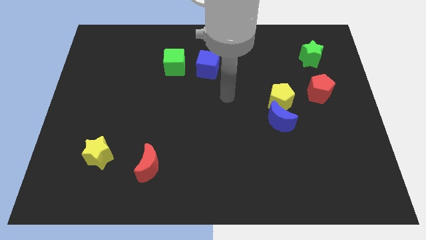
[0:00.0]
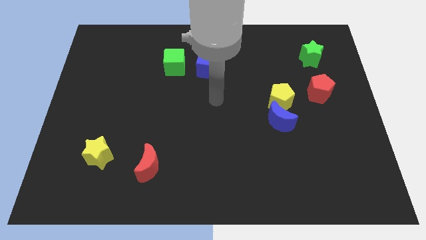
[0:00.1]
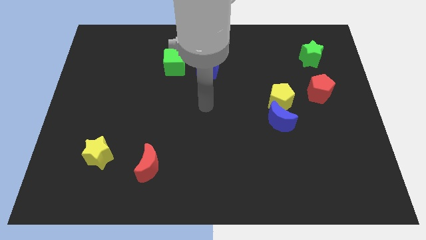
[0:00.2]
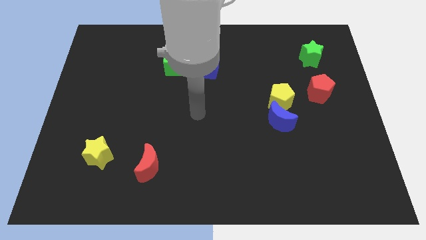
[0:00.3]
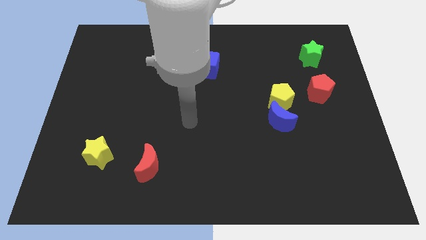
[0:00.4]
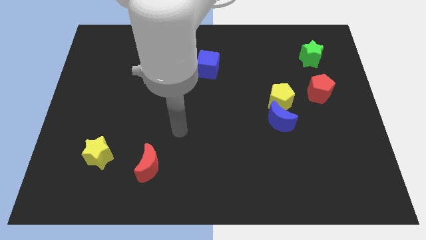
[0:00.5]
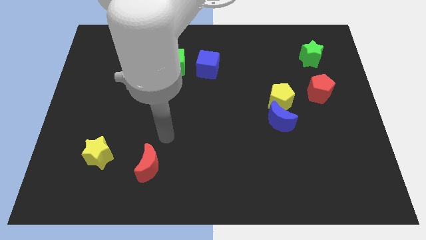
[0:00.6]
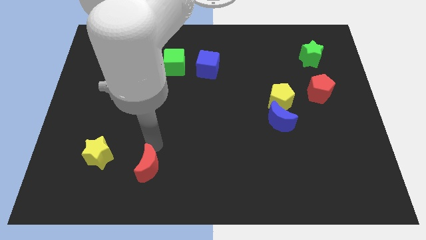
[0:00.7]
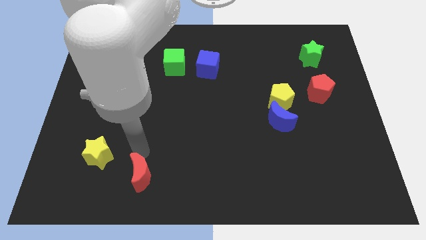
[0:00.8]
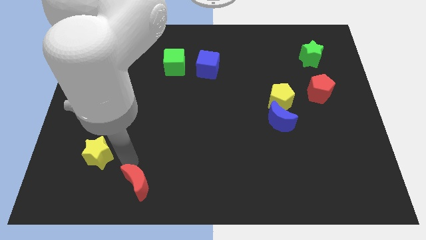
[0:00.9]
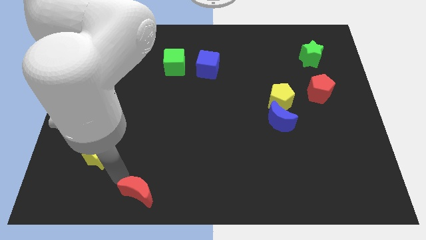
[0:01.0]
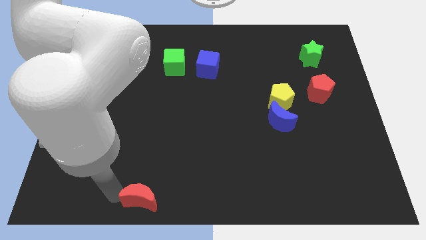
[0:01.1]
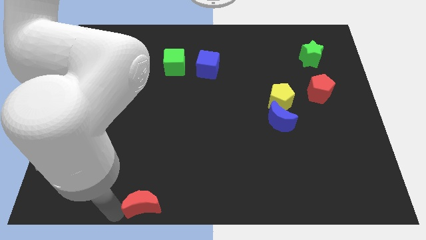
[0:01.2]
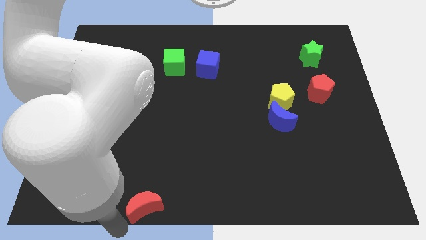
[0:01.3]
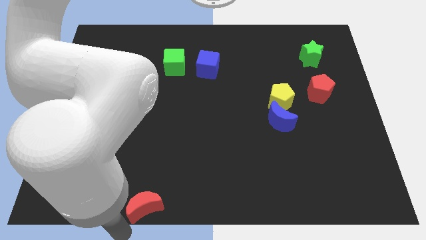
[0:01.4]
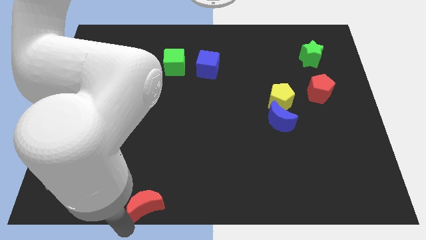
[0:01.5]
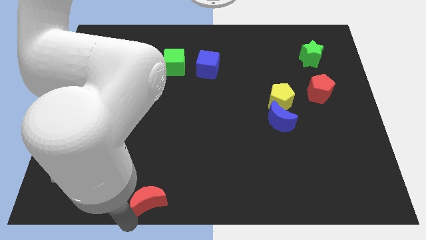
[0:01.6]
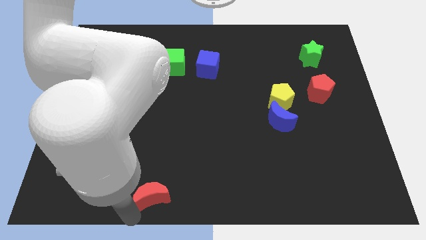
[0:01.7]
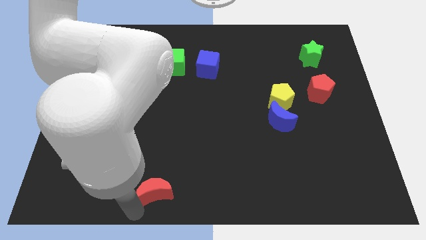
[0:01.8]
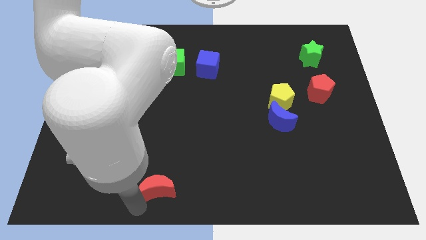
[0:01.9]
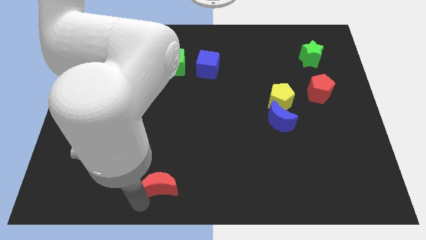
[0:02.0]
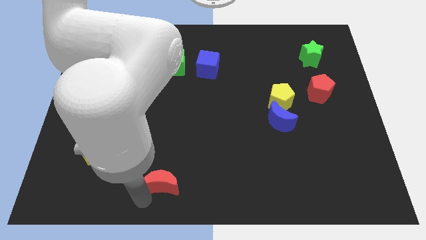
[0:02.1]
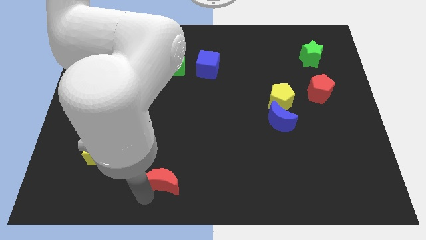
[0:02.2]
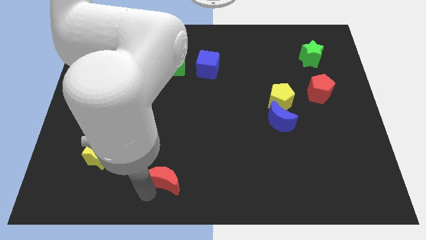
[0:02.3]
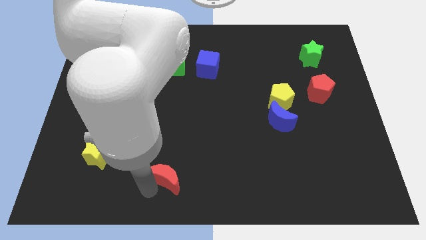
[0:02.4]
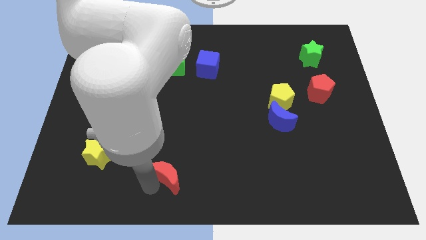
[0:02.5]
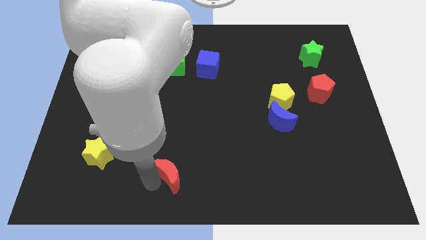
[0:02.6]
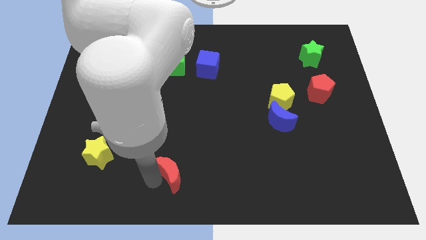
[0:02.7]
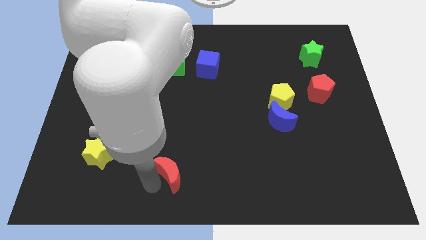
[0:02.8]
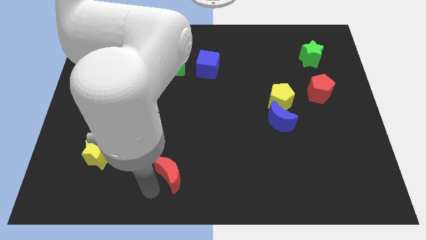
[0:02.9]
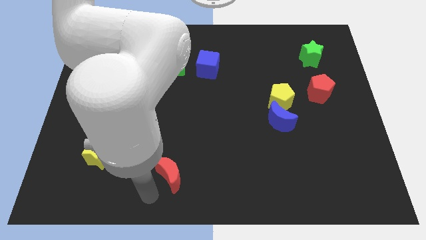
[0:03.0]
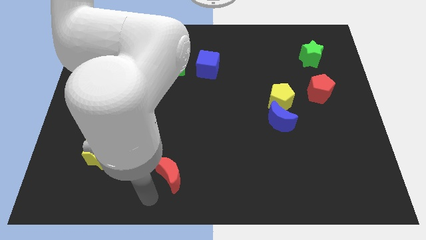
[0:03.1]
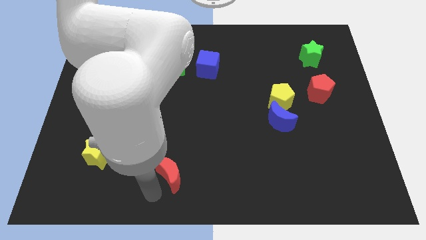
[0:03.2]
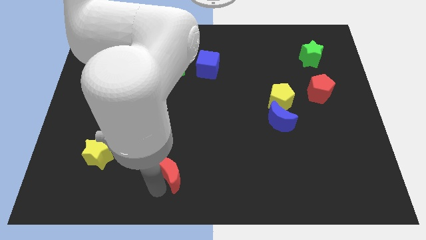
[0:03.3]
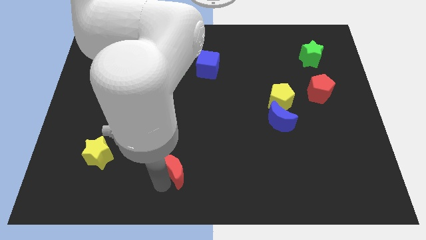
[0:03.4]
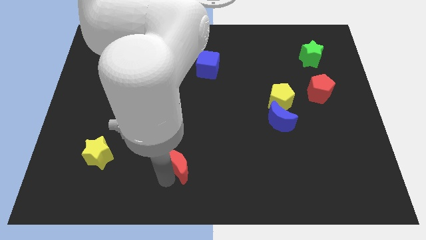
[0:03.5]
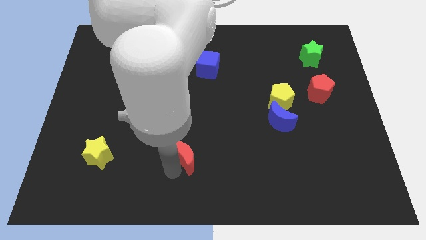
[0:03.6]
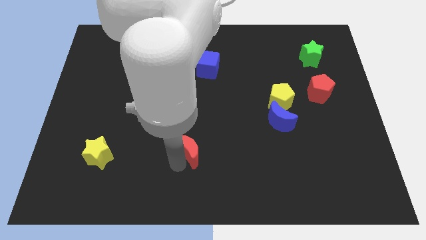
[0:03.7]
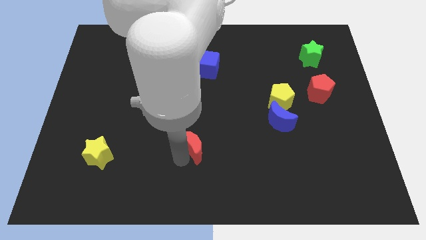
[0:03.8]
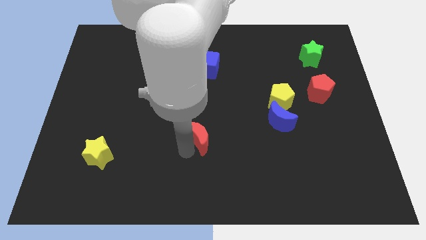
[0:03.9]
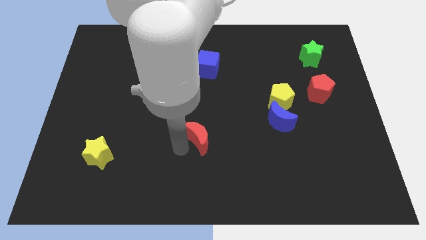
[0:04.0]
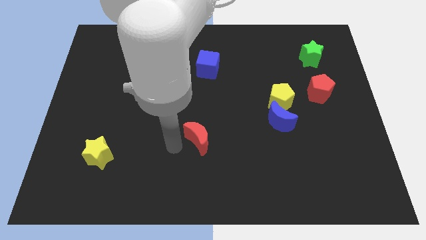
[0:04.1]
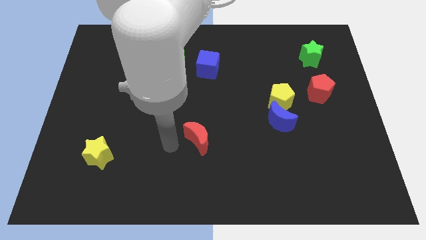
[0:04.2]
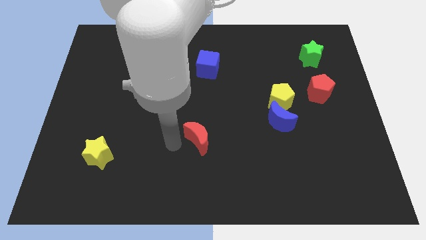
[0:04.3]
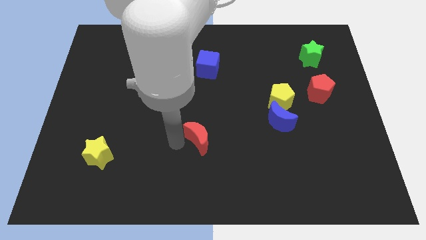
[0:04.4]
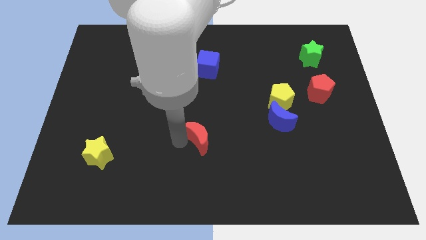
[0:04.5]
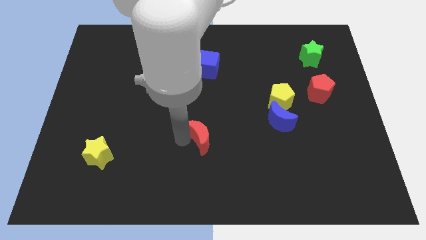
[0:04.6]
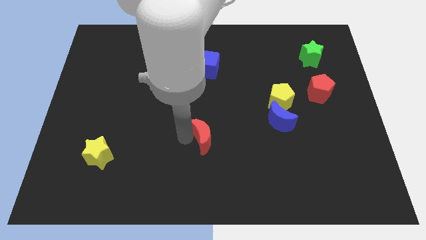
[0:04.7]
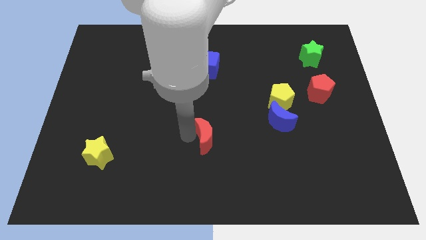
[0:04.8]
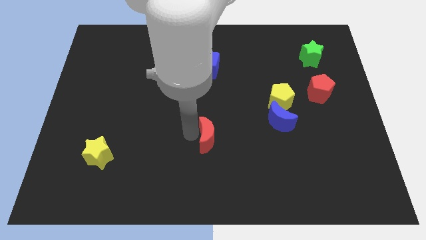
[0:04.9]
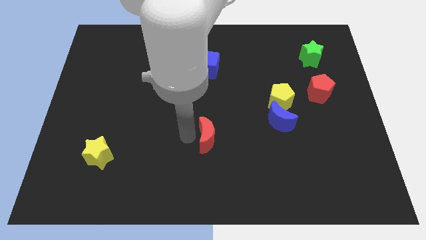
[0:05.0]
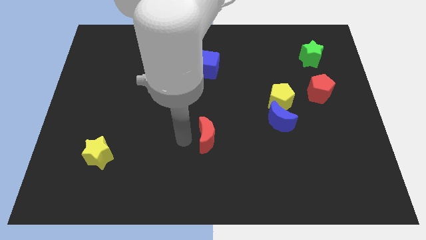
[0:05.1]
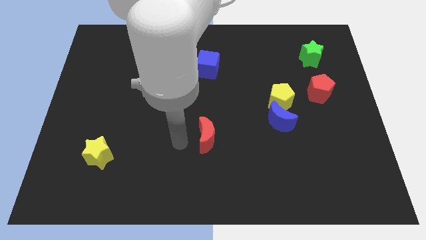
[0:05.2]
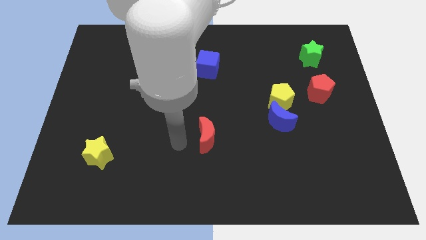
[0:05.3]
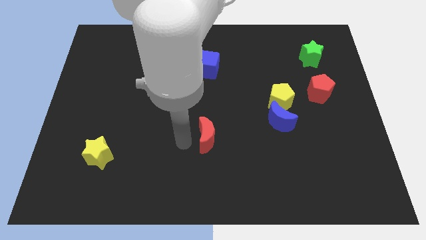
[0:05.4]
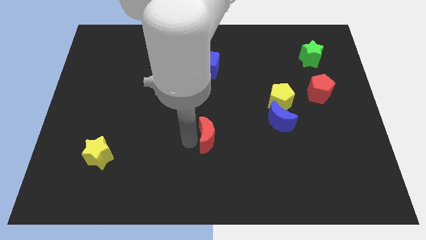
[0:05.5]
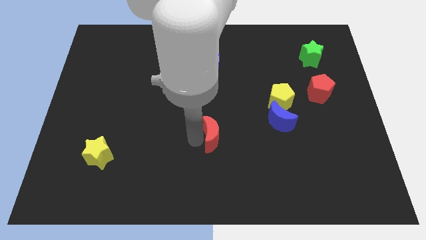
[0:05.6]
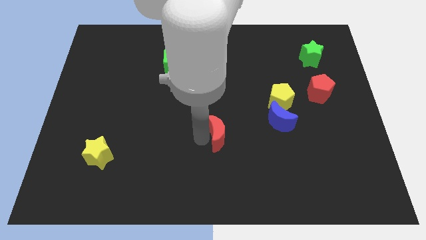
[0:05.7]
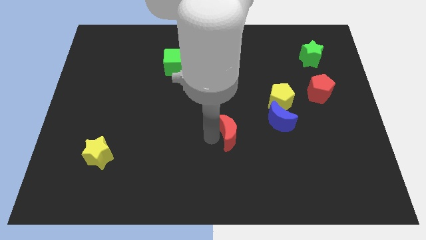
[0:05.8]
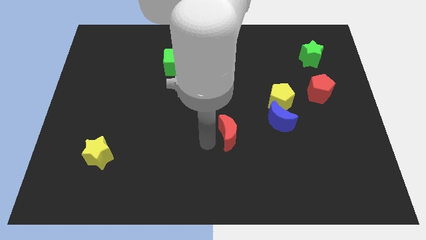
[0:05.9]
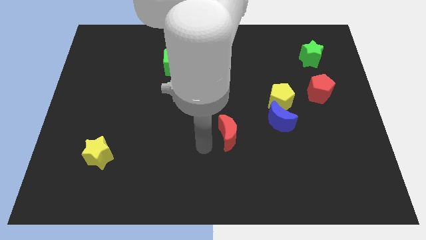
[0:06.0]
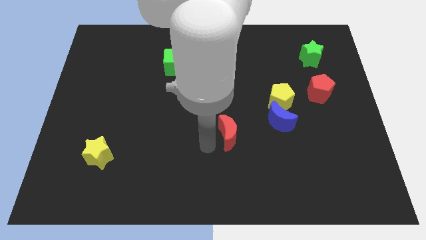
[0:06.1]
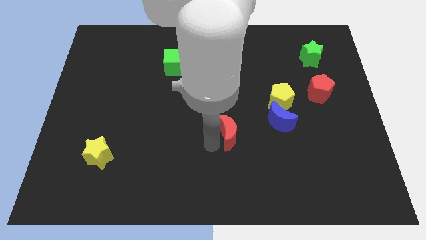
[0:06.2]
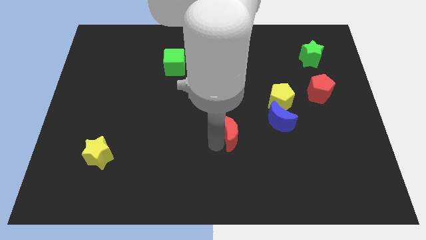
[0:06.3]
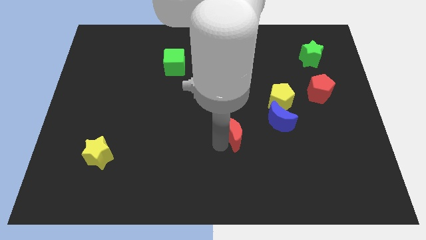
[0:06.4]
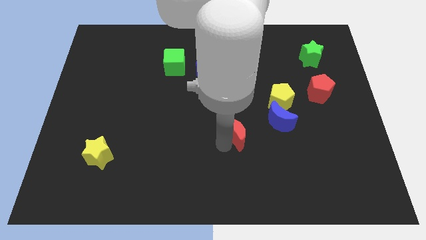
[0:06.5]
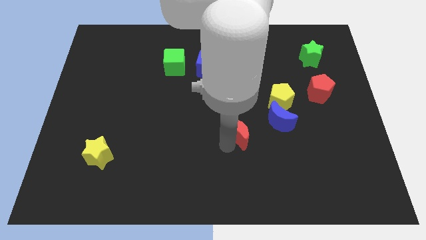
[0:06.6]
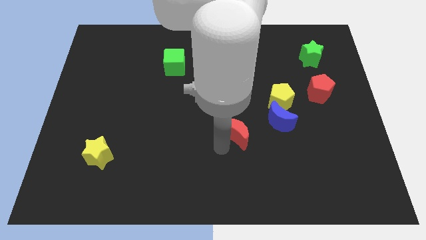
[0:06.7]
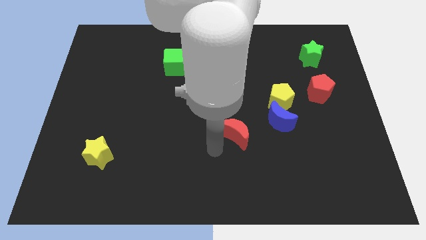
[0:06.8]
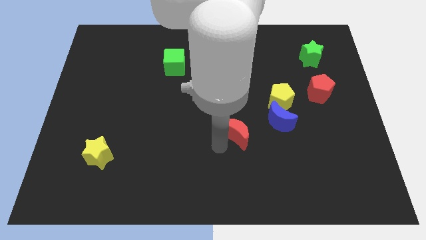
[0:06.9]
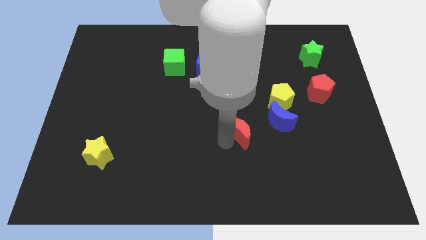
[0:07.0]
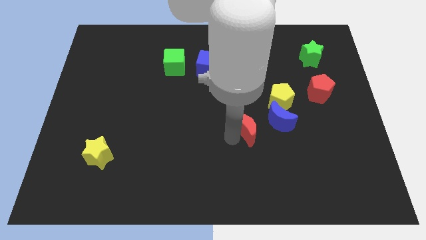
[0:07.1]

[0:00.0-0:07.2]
put the red moon diagonally down and to the left of the yellow pentagon
